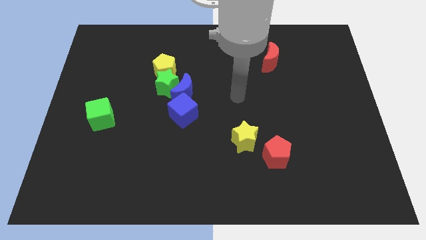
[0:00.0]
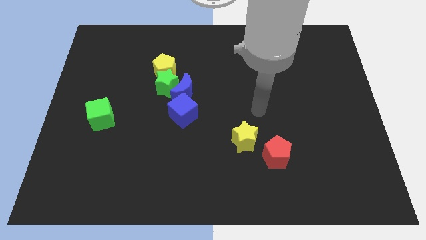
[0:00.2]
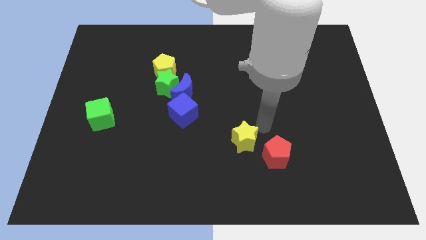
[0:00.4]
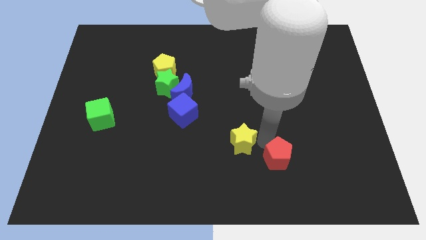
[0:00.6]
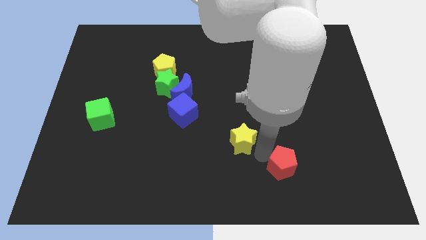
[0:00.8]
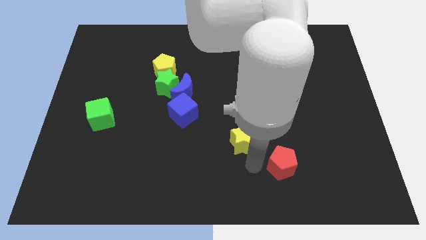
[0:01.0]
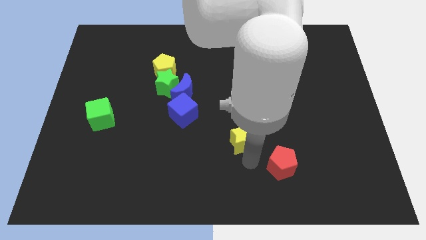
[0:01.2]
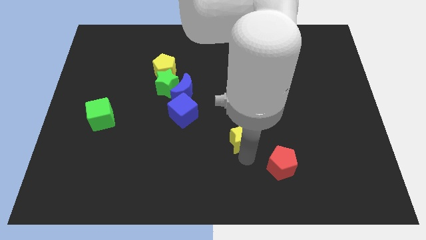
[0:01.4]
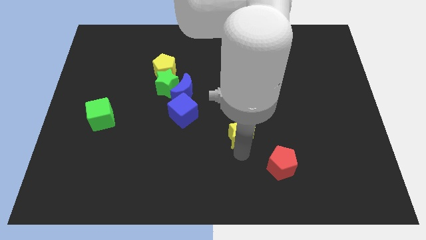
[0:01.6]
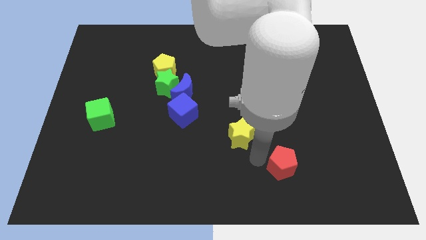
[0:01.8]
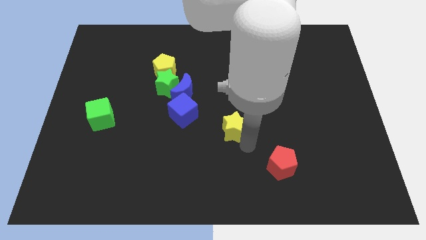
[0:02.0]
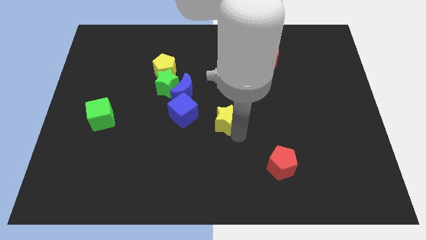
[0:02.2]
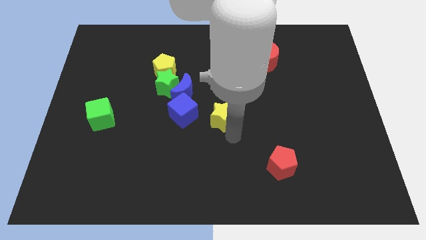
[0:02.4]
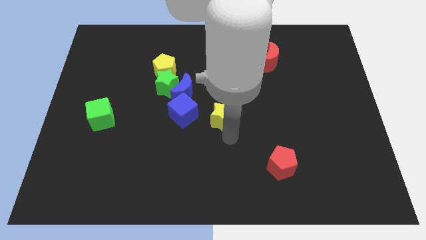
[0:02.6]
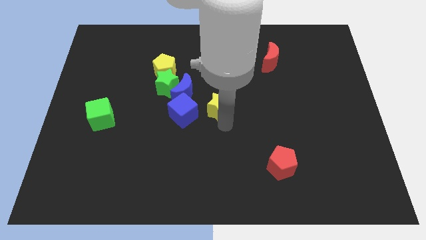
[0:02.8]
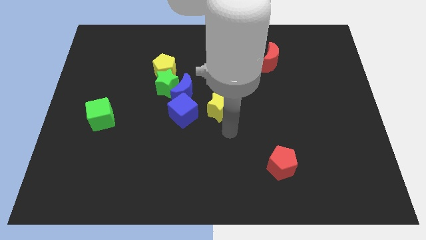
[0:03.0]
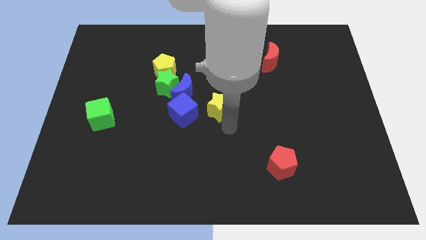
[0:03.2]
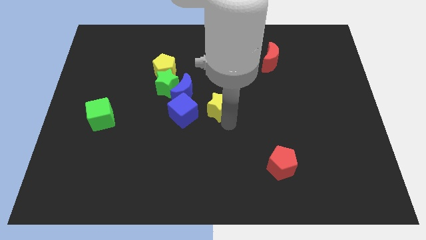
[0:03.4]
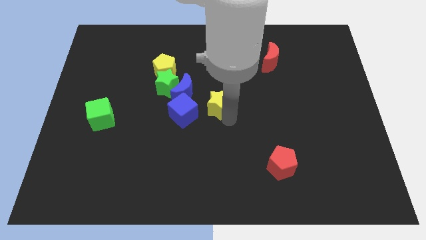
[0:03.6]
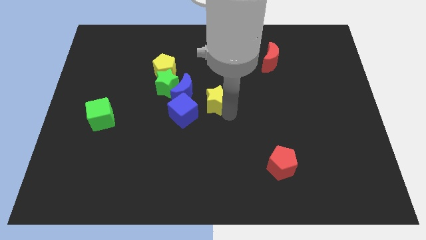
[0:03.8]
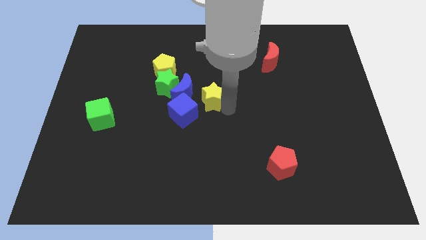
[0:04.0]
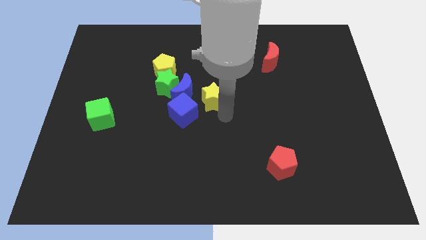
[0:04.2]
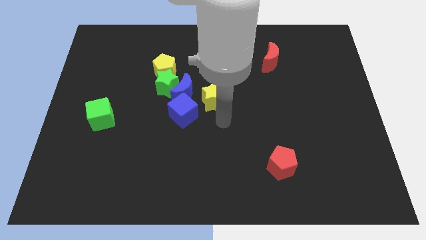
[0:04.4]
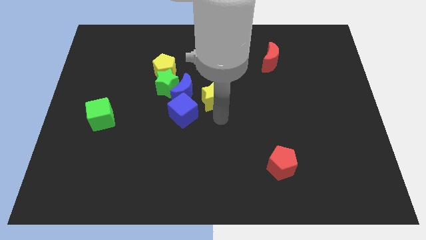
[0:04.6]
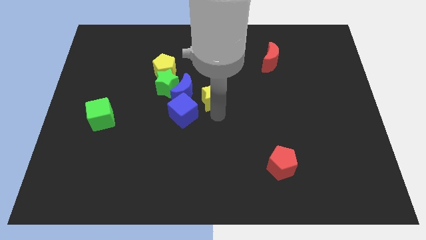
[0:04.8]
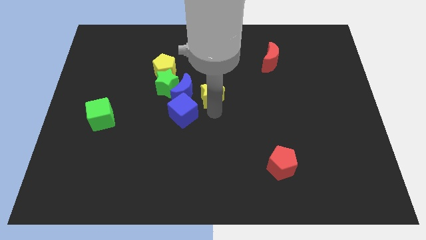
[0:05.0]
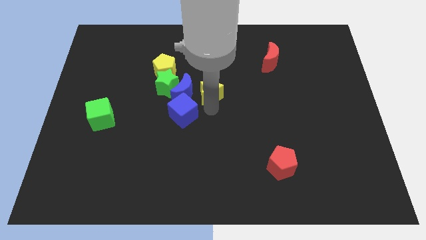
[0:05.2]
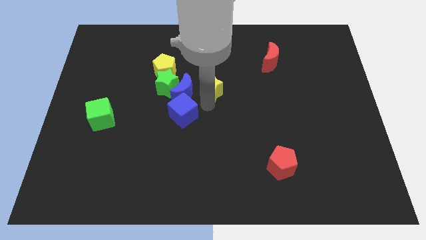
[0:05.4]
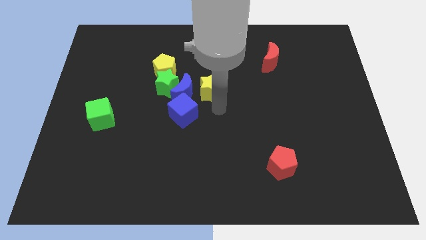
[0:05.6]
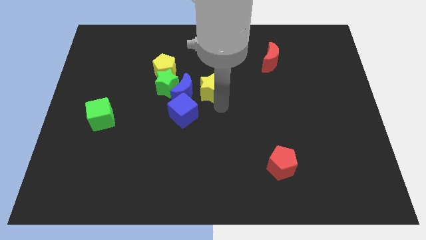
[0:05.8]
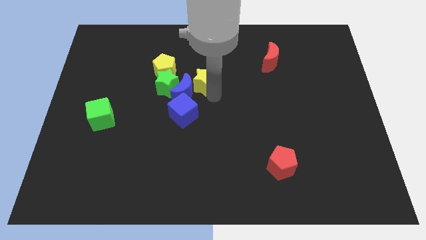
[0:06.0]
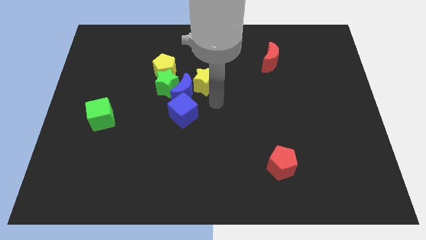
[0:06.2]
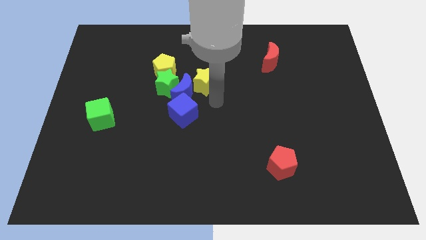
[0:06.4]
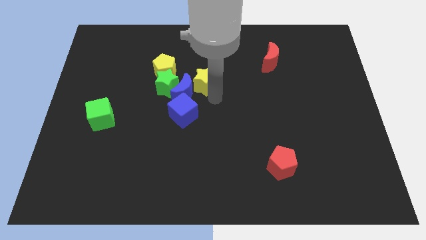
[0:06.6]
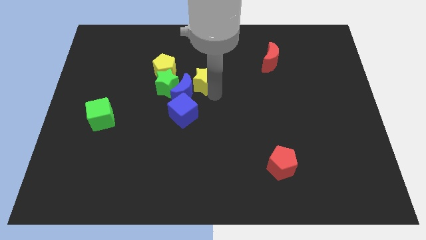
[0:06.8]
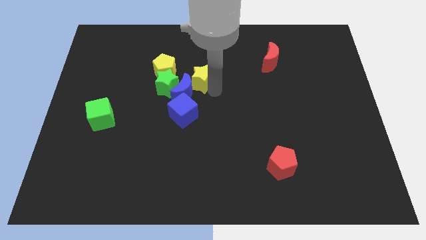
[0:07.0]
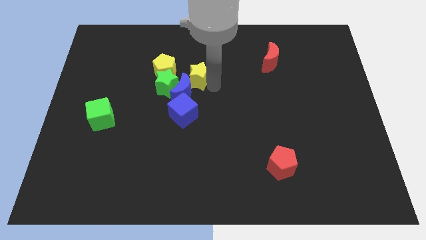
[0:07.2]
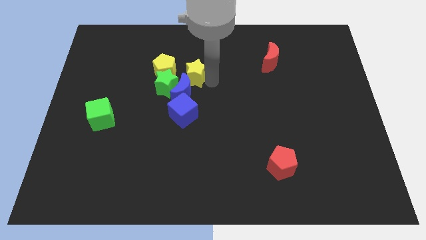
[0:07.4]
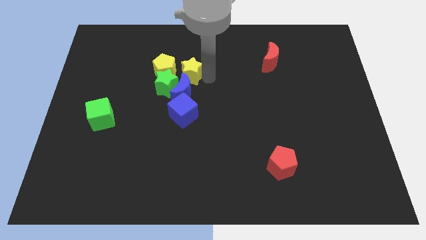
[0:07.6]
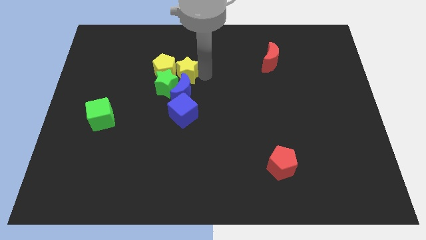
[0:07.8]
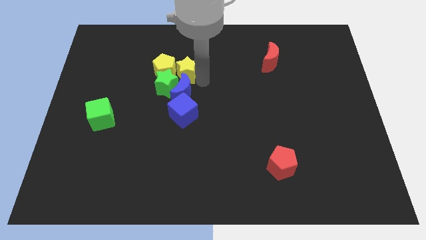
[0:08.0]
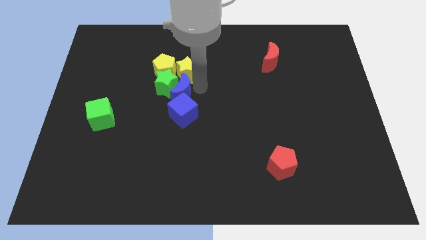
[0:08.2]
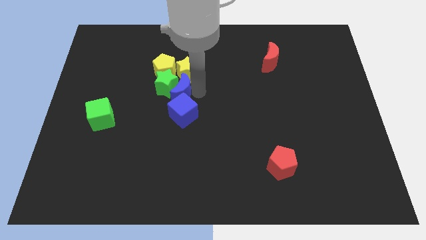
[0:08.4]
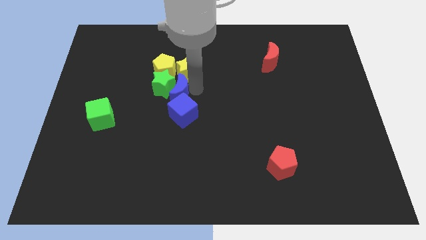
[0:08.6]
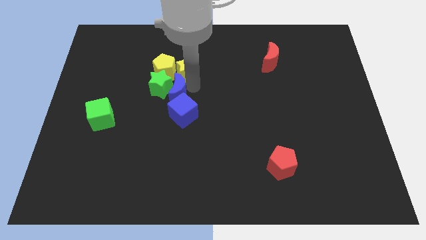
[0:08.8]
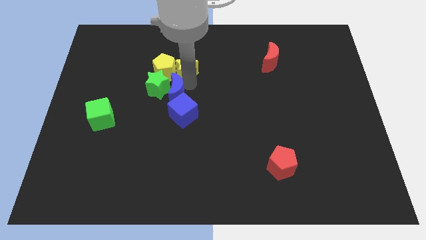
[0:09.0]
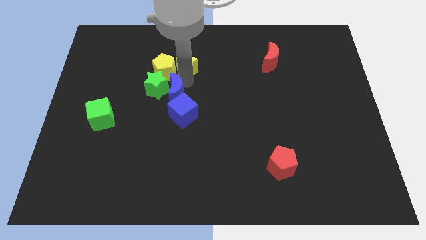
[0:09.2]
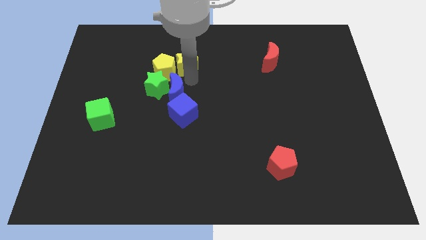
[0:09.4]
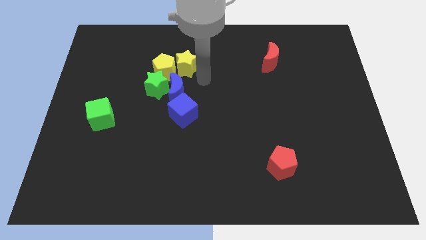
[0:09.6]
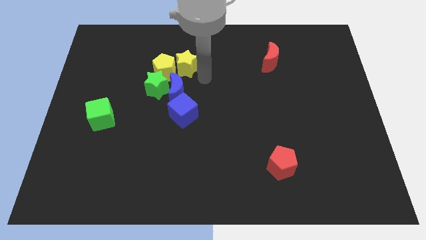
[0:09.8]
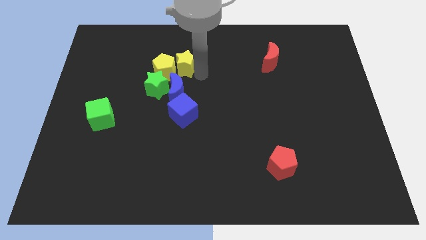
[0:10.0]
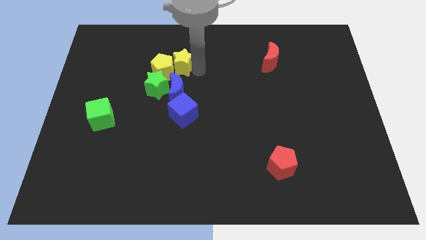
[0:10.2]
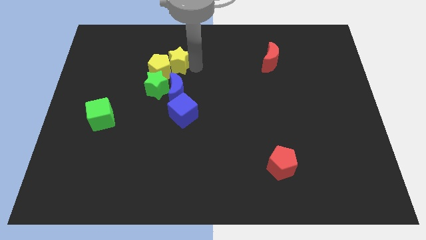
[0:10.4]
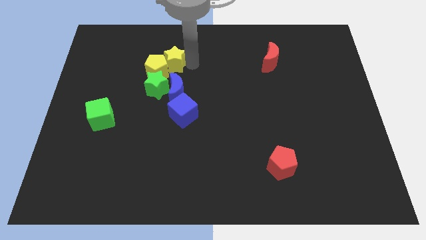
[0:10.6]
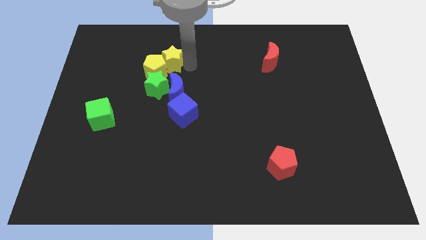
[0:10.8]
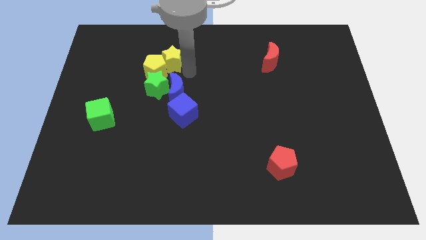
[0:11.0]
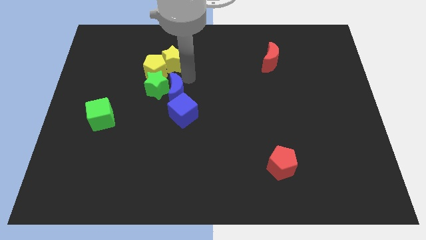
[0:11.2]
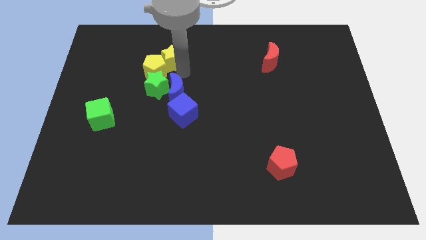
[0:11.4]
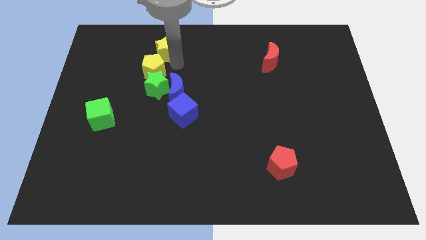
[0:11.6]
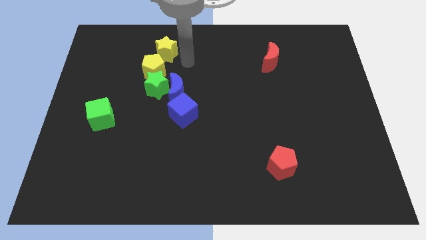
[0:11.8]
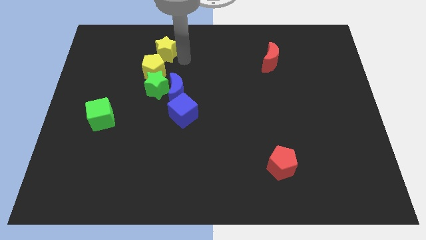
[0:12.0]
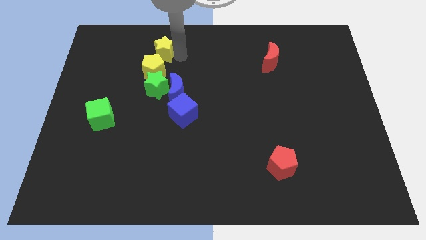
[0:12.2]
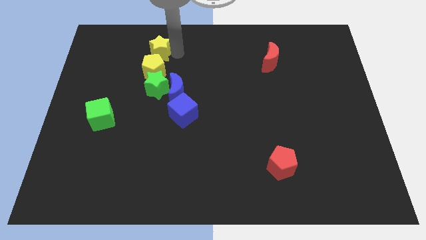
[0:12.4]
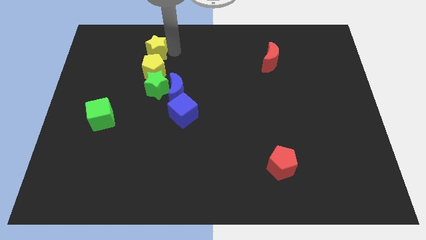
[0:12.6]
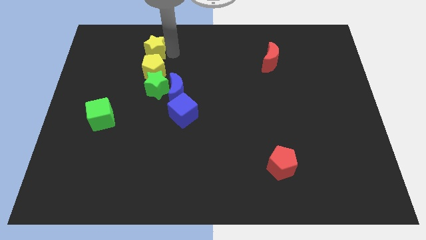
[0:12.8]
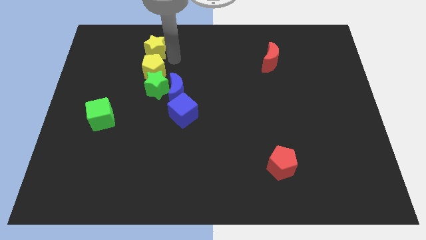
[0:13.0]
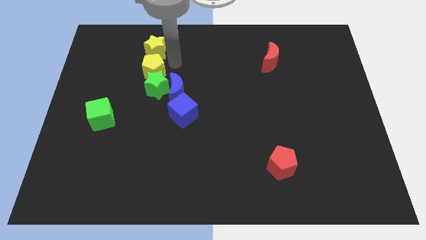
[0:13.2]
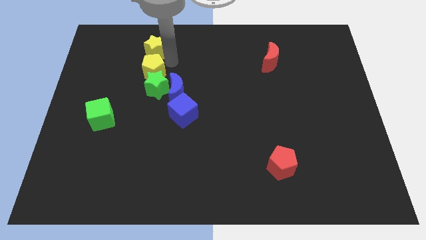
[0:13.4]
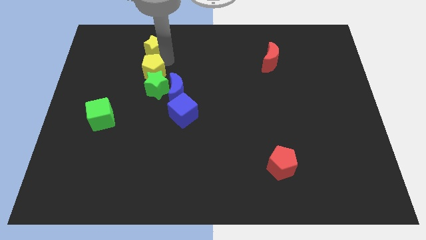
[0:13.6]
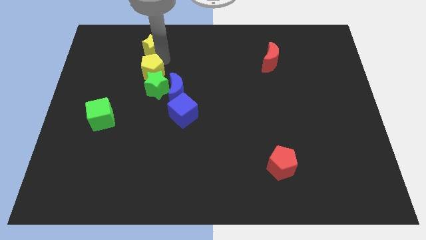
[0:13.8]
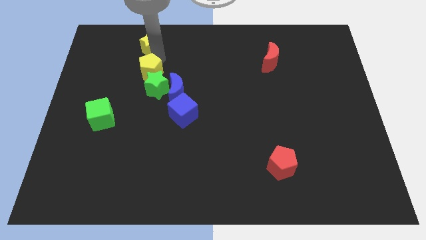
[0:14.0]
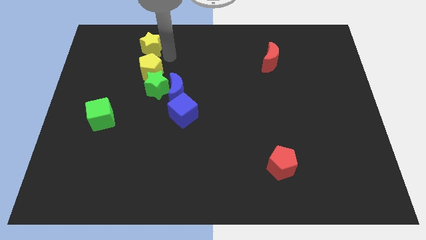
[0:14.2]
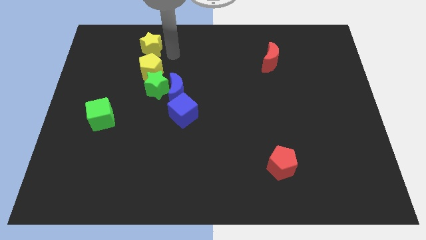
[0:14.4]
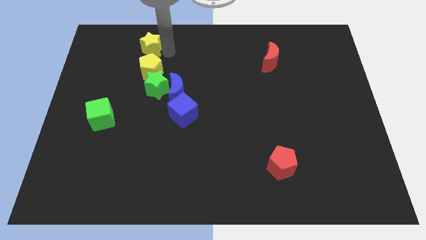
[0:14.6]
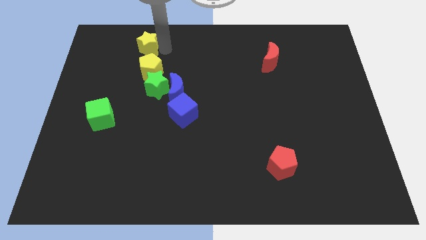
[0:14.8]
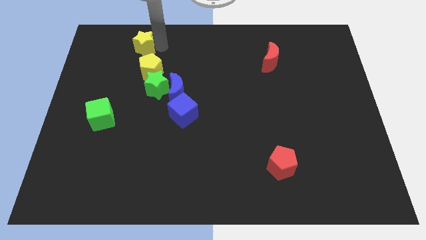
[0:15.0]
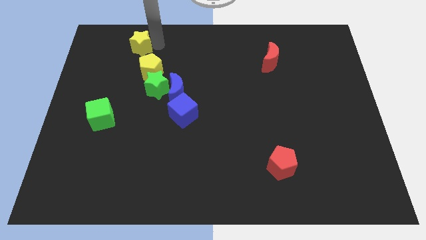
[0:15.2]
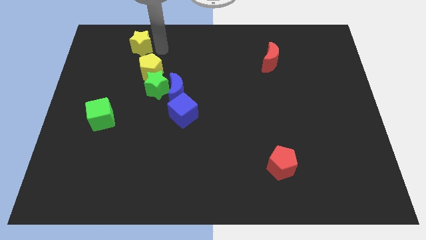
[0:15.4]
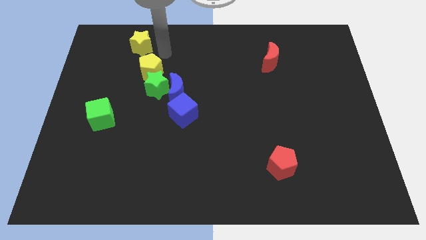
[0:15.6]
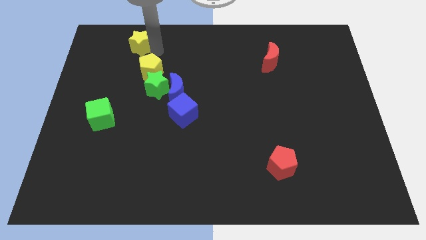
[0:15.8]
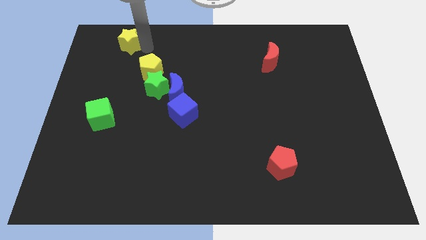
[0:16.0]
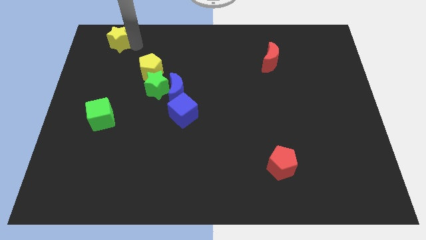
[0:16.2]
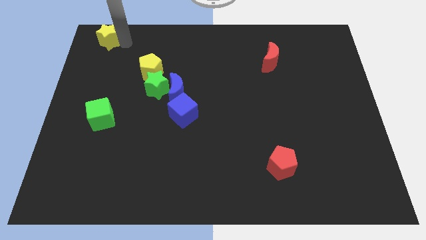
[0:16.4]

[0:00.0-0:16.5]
push the yellow star to the top left of the board
